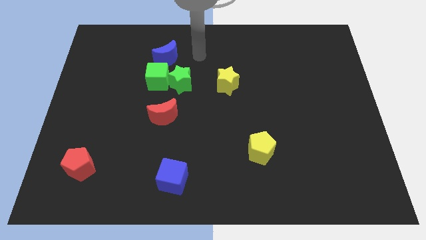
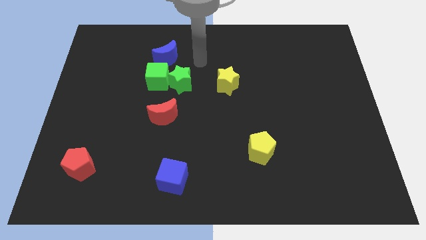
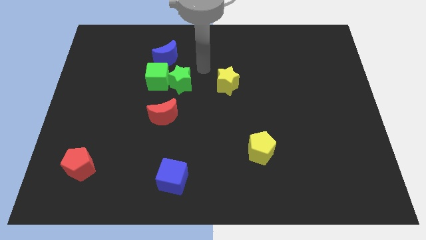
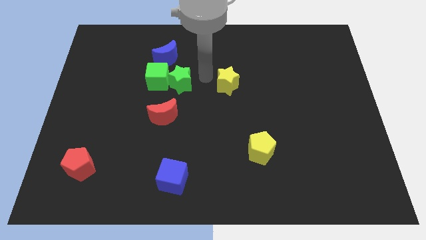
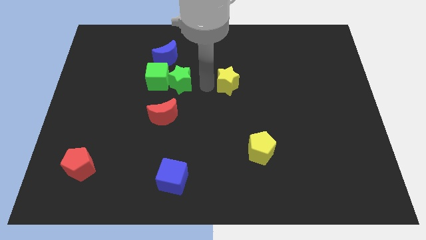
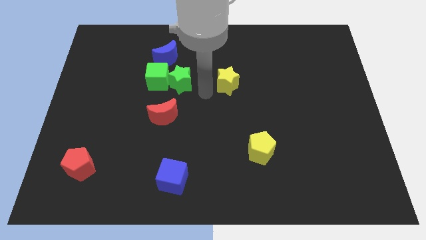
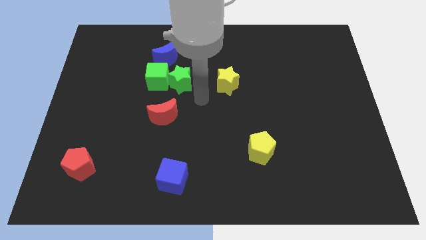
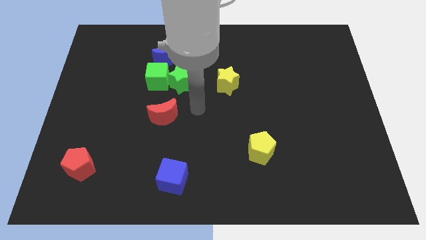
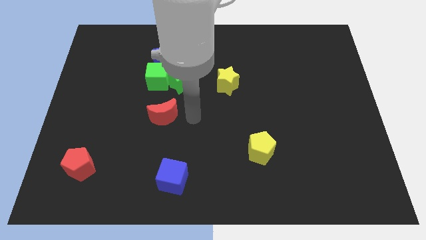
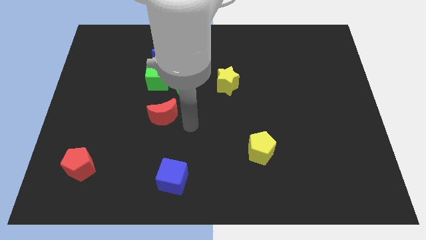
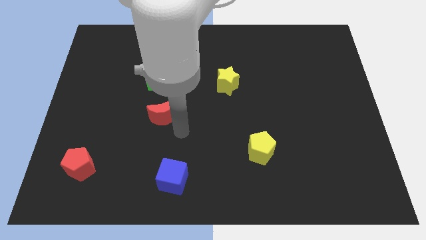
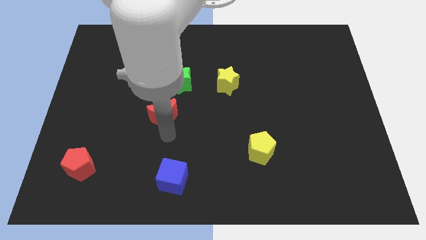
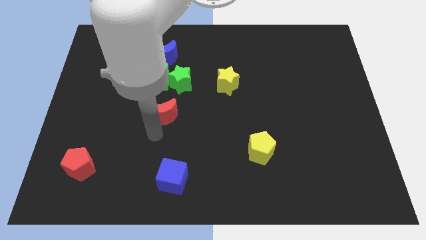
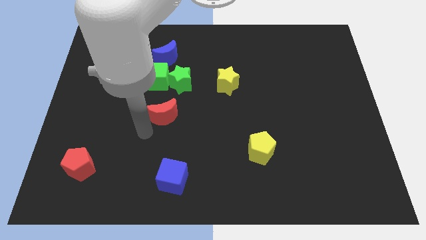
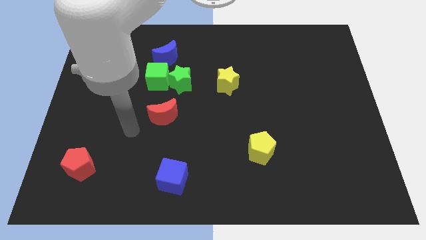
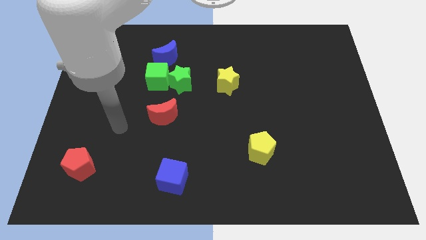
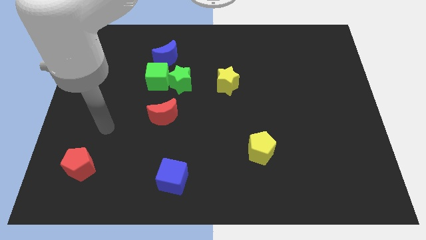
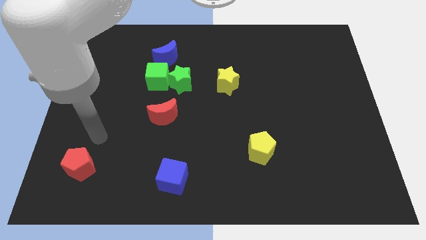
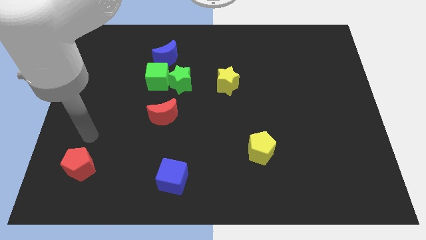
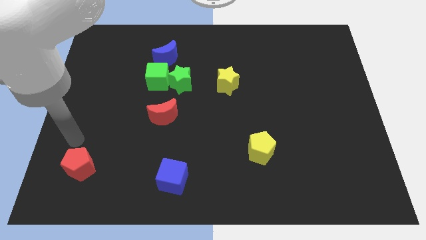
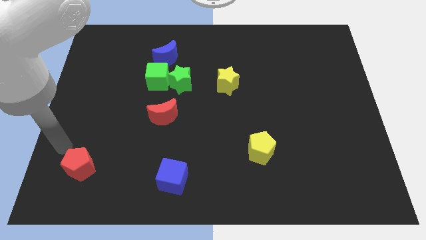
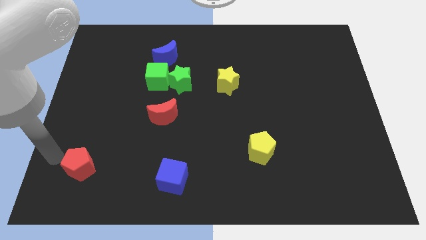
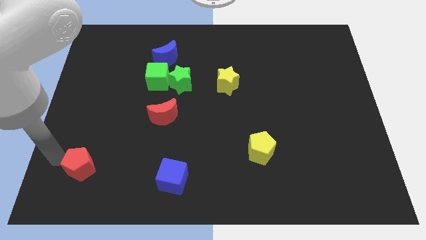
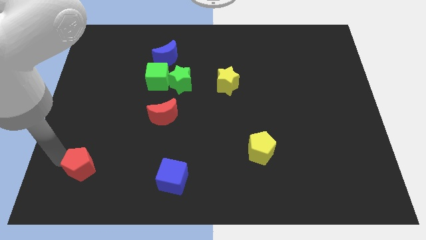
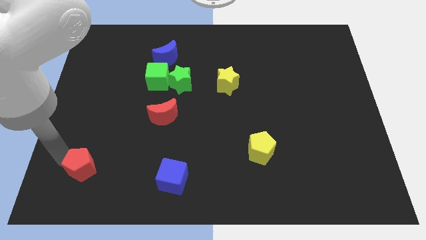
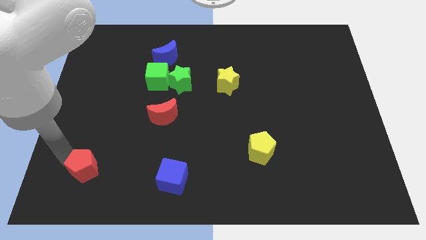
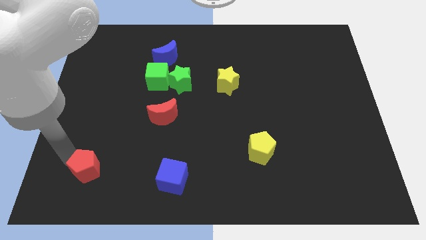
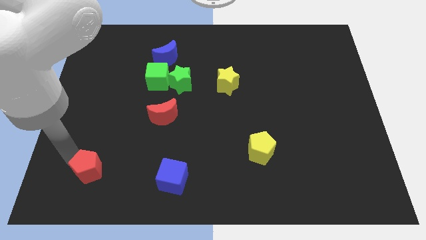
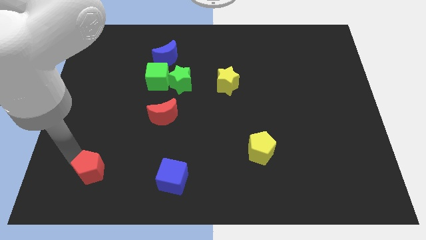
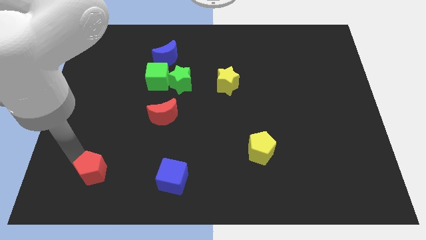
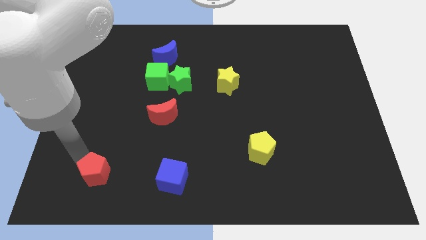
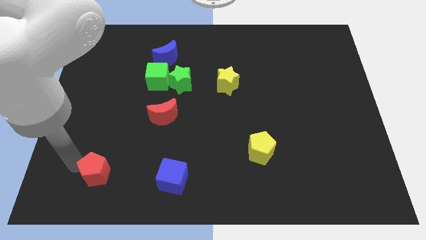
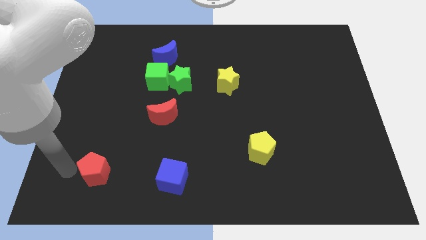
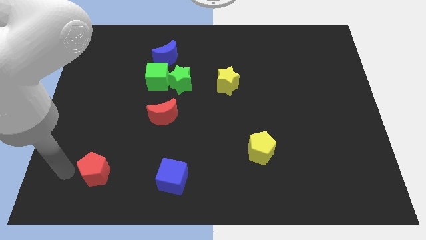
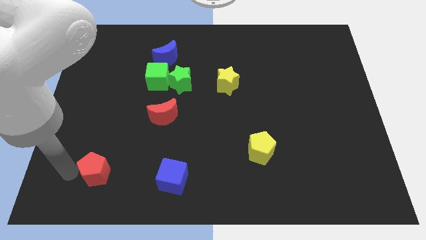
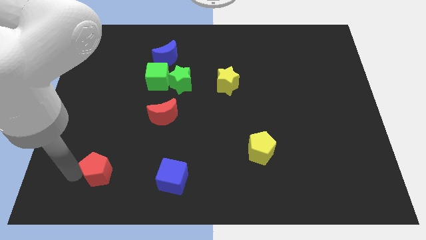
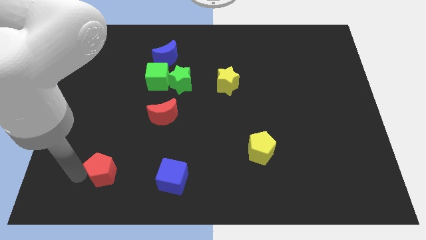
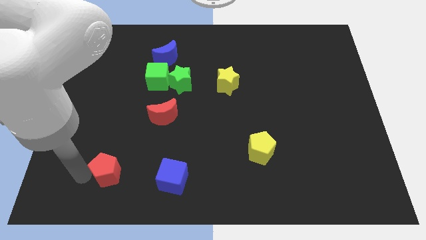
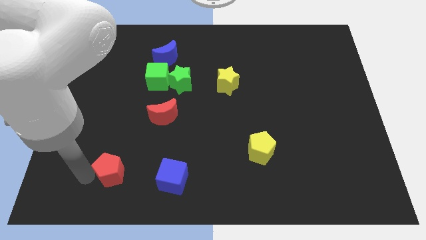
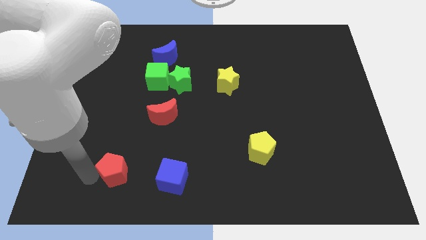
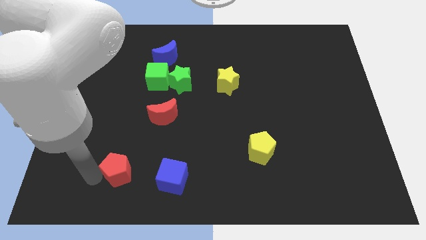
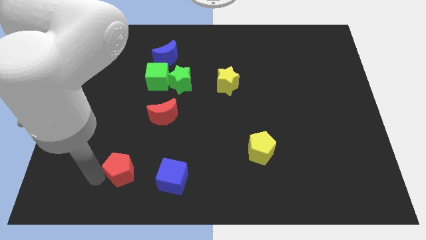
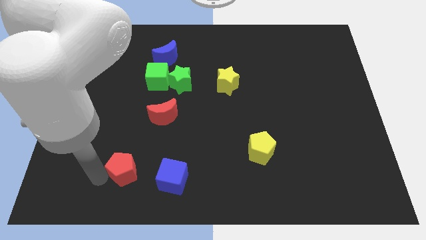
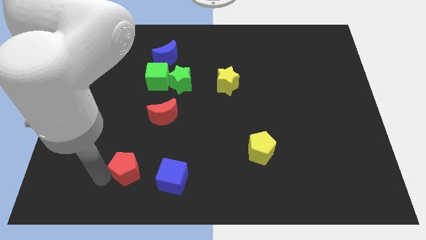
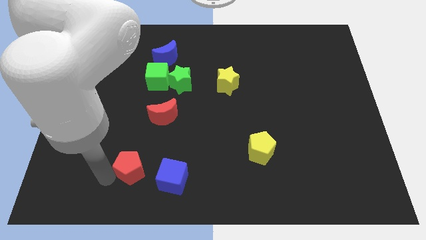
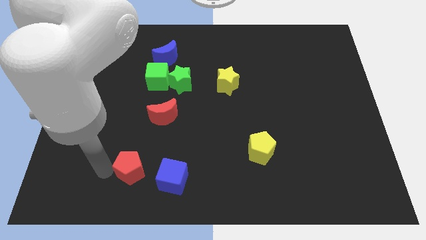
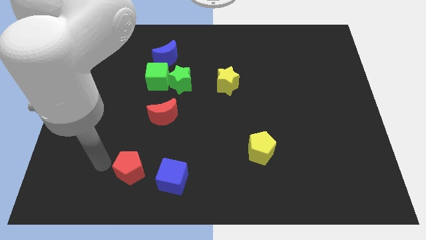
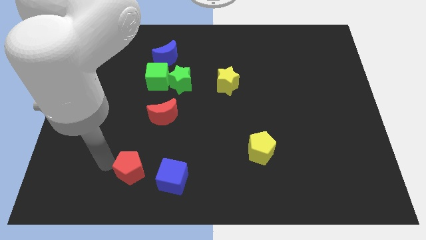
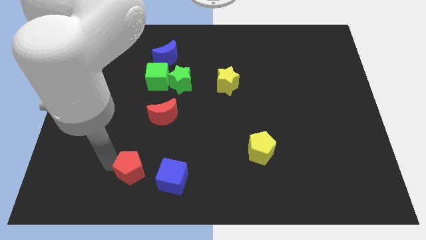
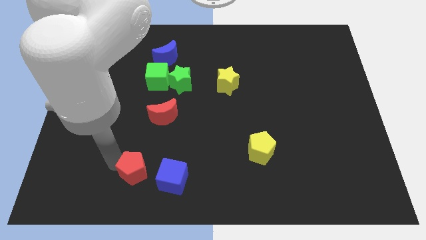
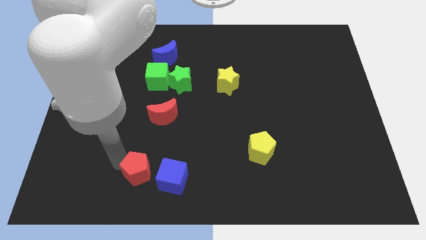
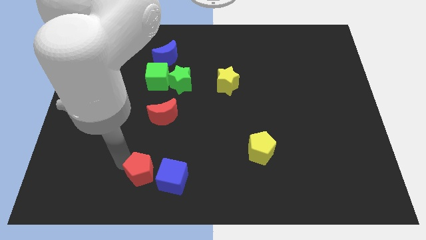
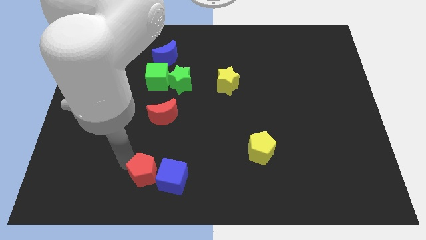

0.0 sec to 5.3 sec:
push the red pentagon to the blue cube

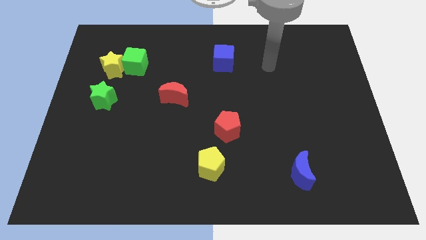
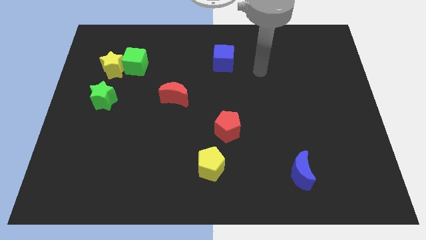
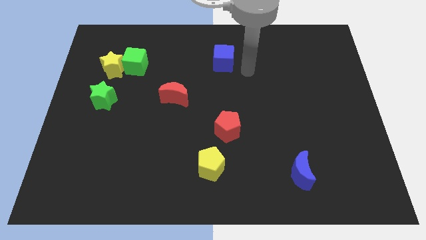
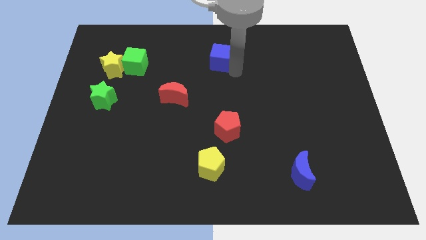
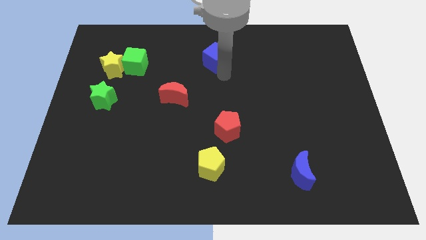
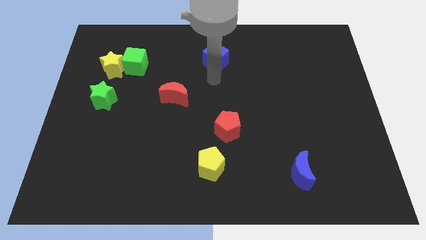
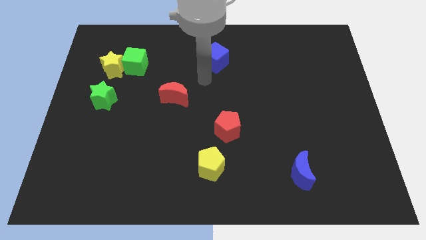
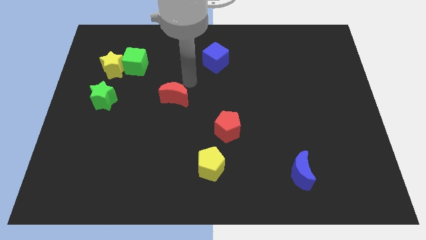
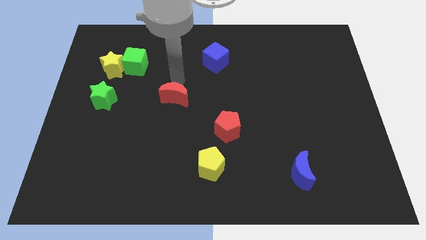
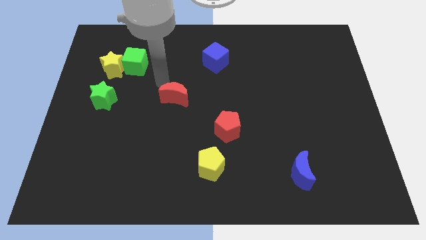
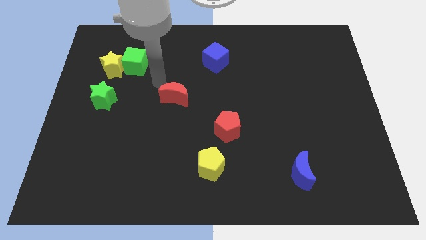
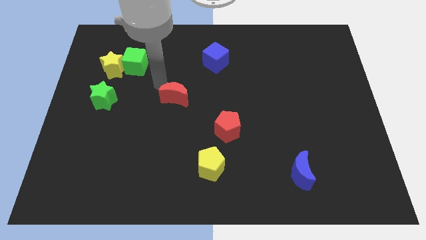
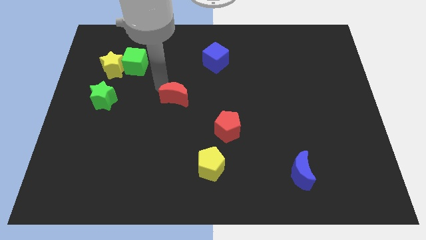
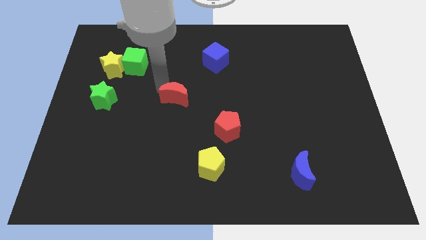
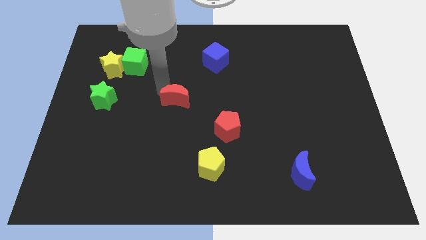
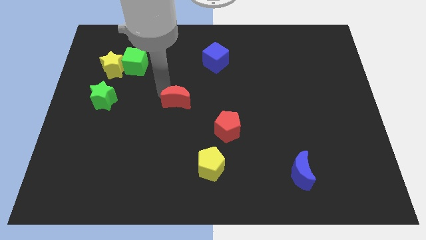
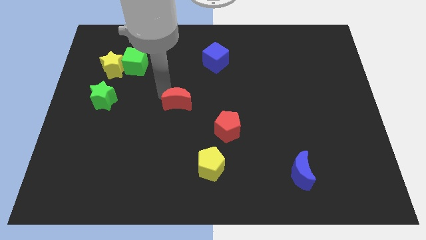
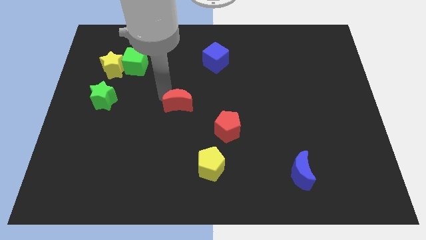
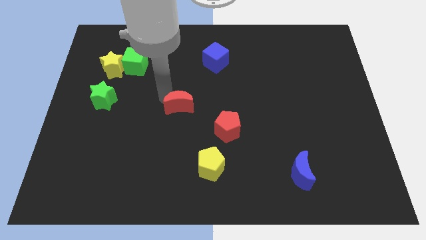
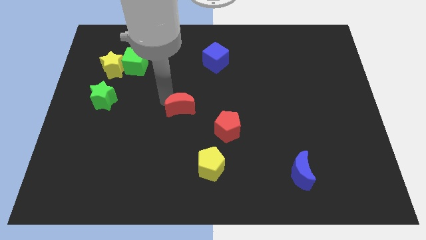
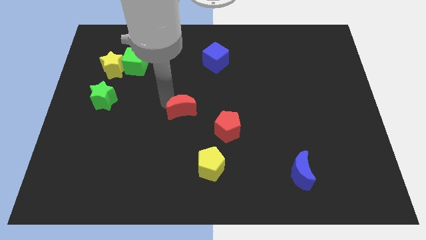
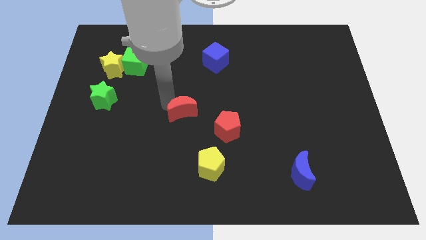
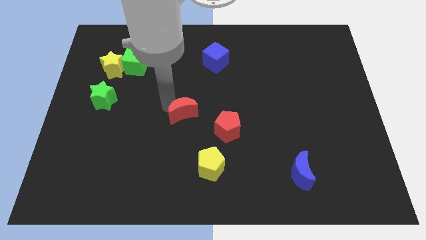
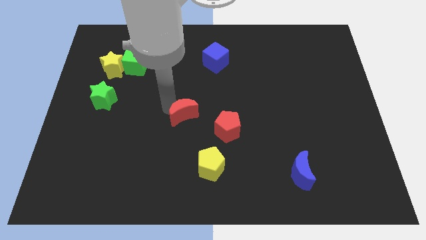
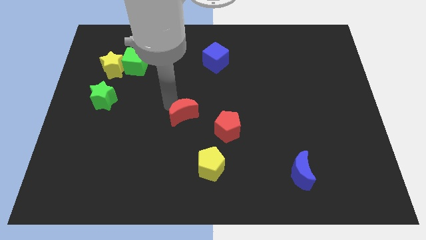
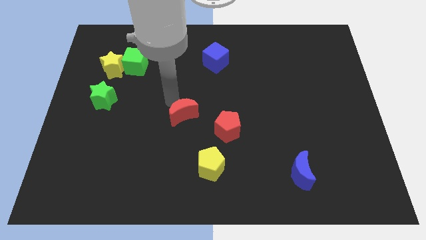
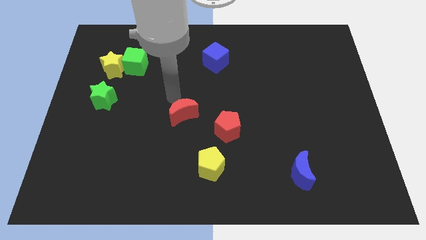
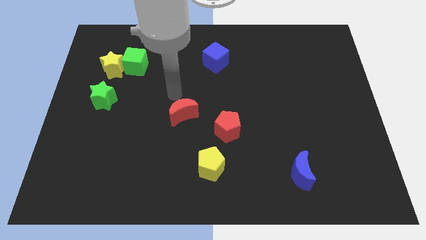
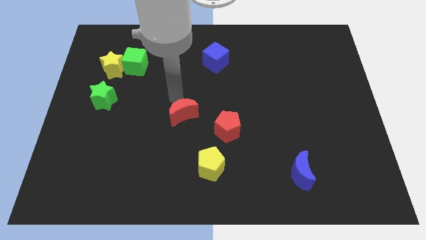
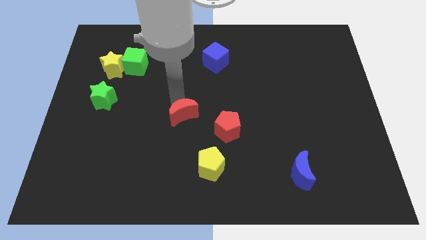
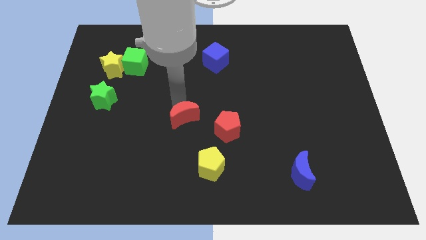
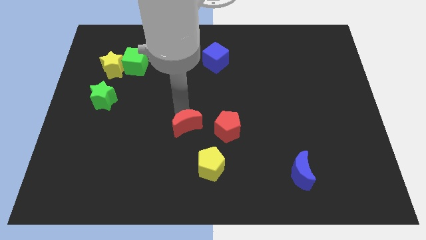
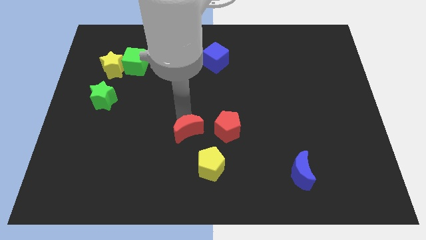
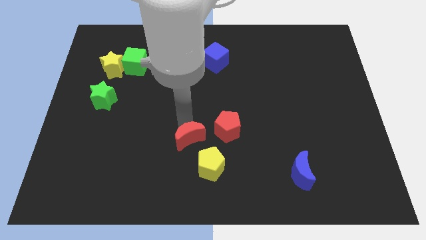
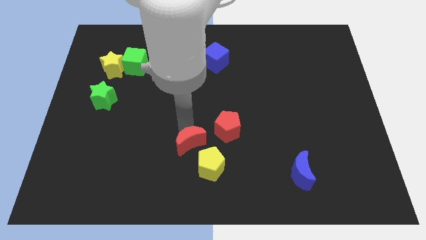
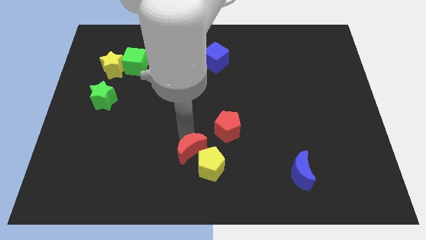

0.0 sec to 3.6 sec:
move the red moon to the yellow pentagon
